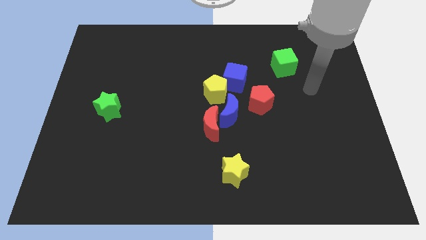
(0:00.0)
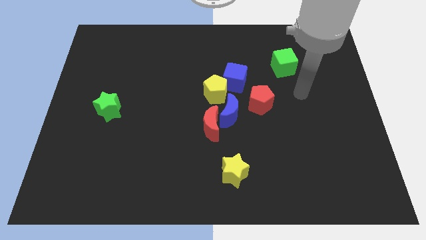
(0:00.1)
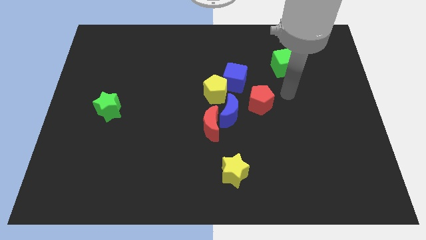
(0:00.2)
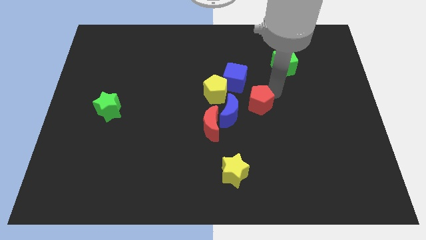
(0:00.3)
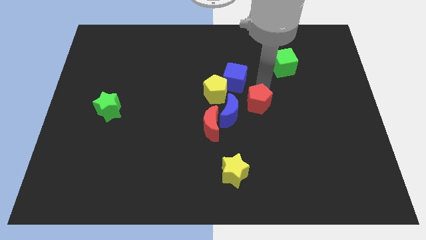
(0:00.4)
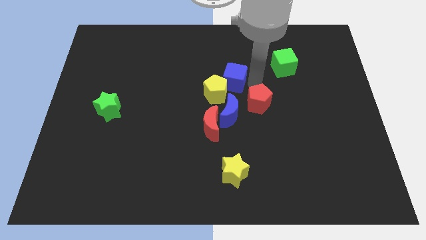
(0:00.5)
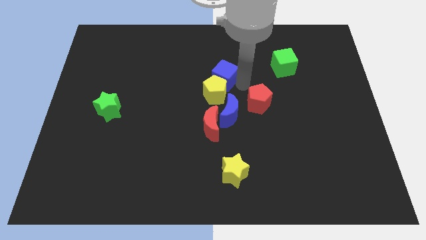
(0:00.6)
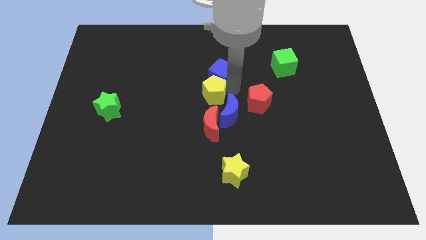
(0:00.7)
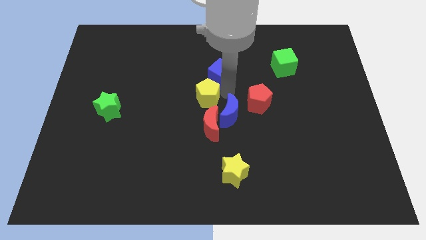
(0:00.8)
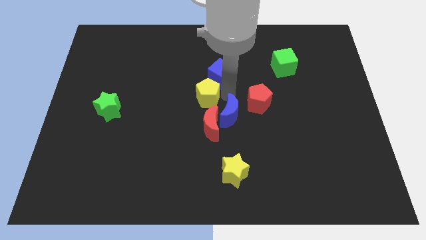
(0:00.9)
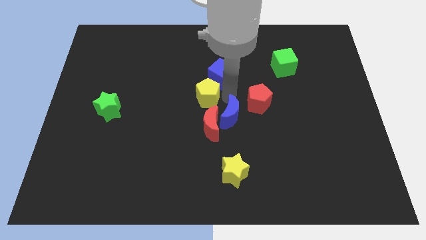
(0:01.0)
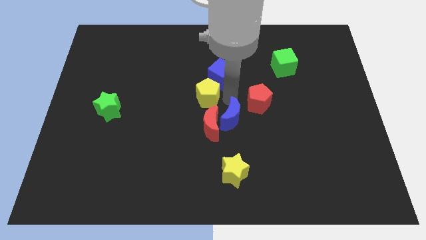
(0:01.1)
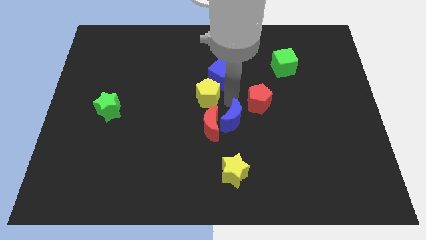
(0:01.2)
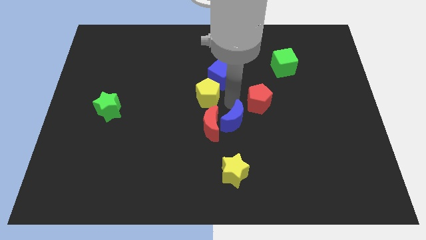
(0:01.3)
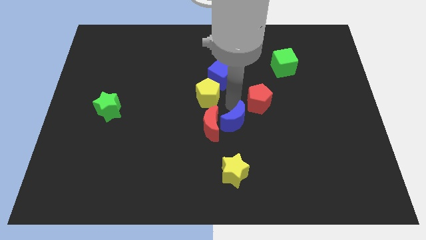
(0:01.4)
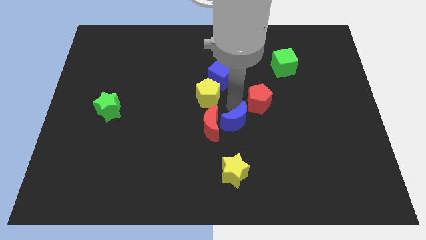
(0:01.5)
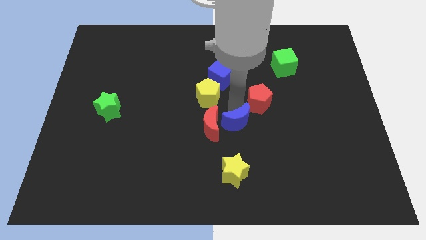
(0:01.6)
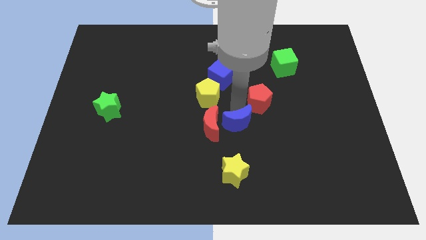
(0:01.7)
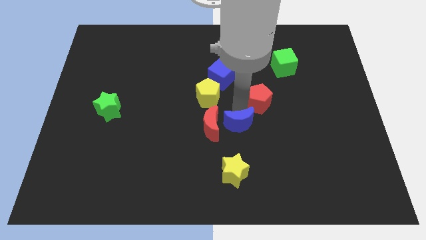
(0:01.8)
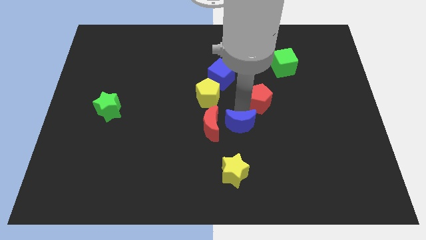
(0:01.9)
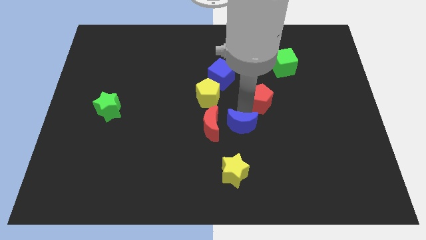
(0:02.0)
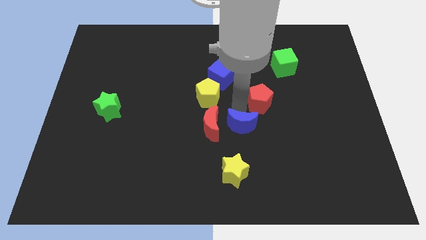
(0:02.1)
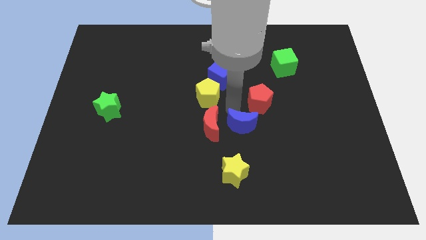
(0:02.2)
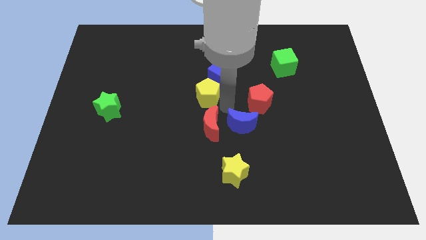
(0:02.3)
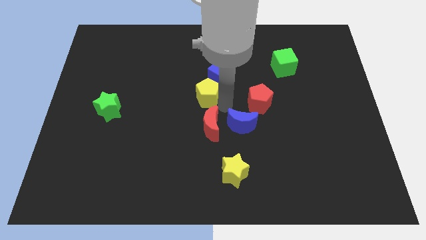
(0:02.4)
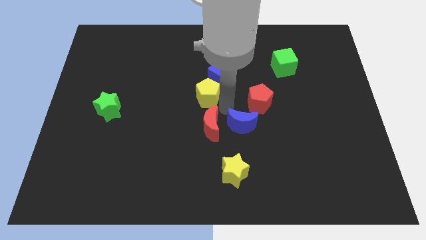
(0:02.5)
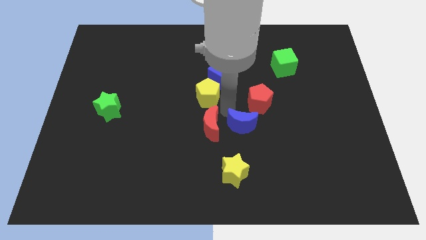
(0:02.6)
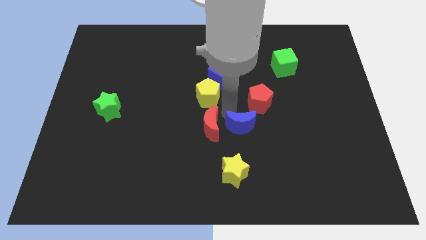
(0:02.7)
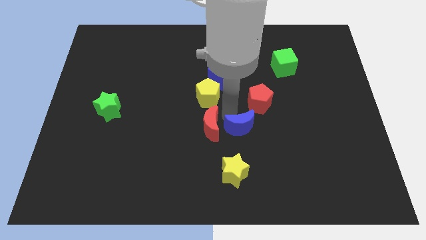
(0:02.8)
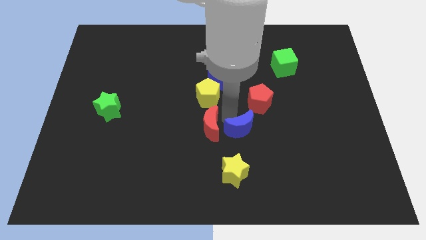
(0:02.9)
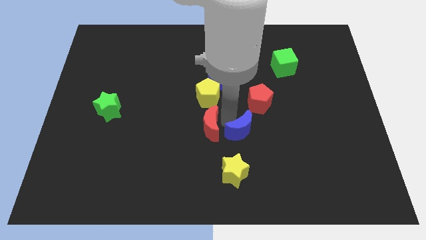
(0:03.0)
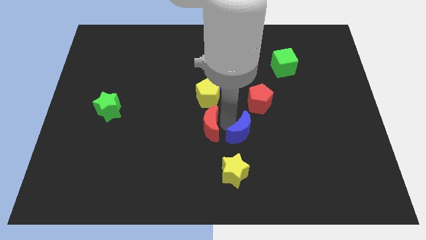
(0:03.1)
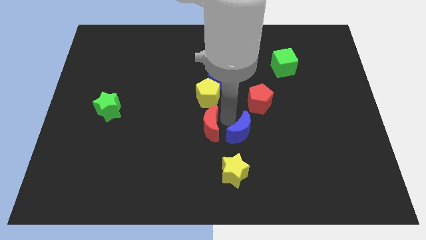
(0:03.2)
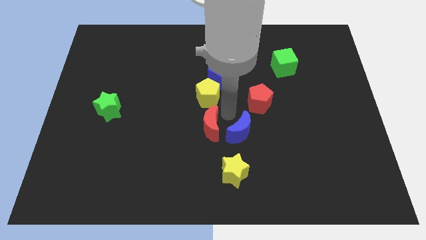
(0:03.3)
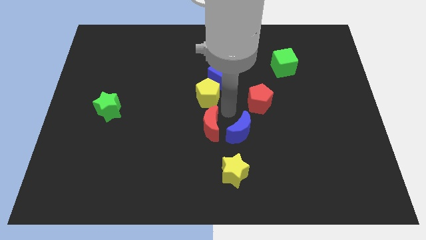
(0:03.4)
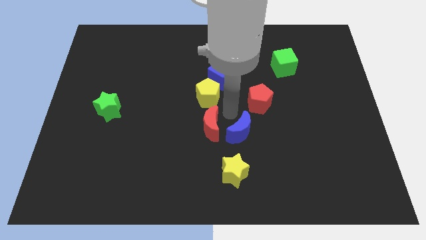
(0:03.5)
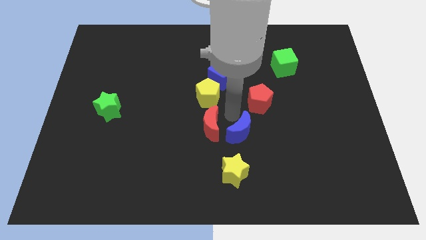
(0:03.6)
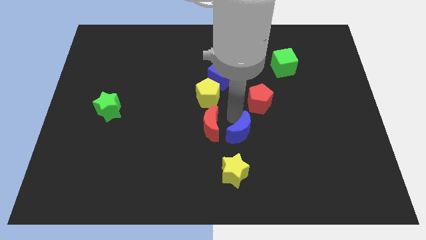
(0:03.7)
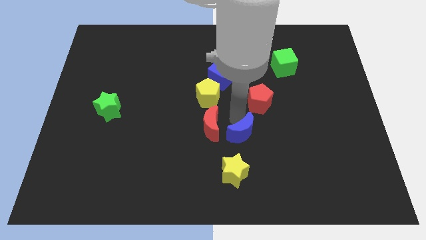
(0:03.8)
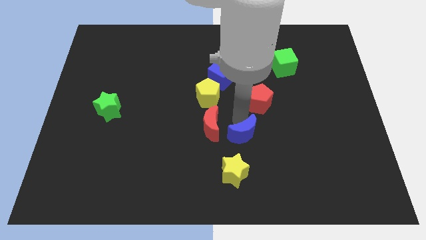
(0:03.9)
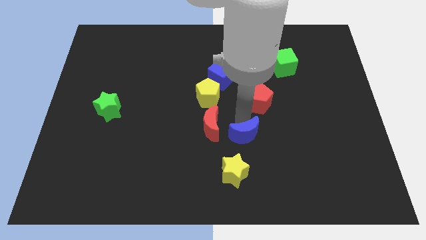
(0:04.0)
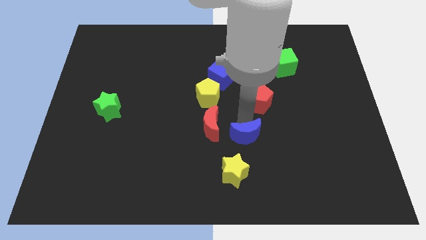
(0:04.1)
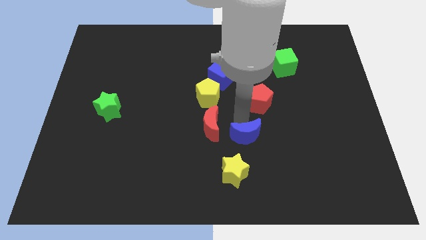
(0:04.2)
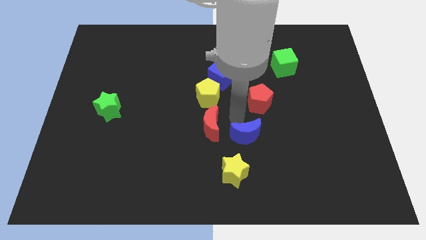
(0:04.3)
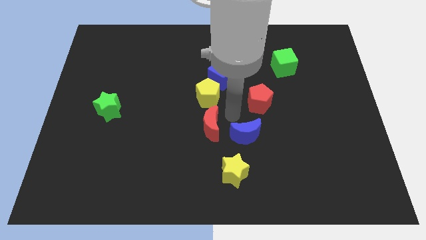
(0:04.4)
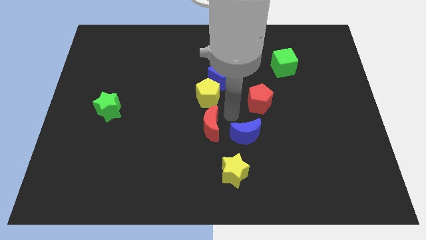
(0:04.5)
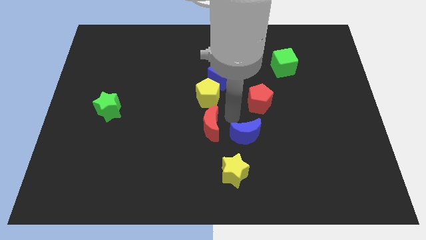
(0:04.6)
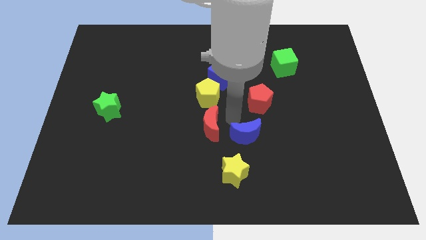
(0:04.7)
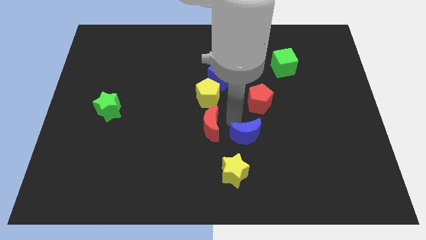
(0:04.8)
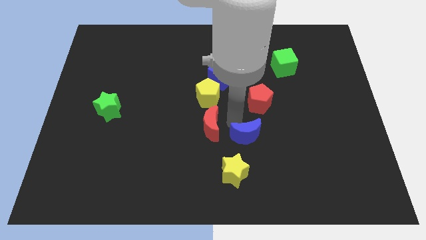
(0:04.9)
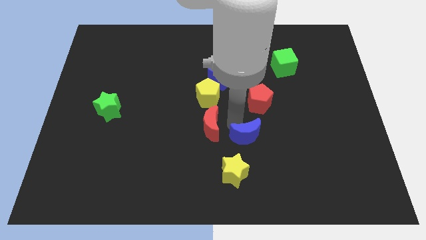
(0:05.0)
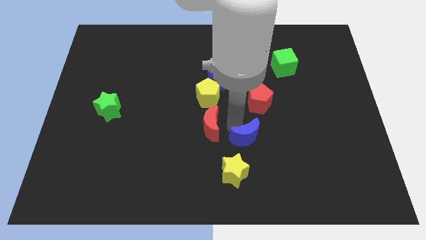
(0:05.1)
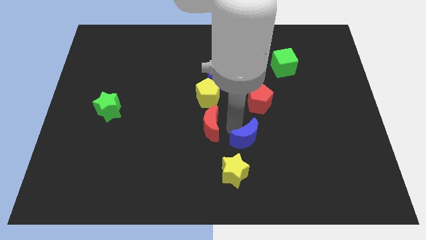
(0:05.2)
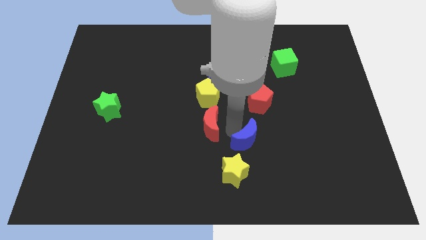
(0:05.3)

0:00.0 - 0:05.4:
separate the blue moon from the red moon, yellow pentagon, and red pentagon

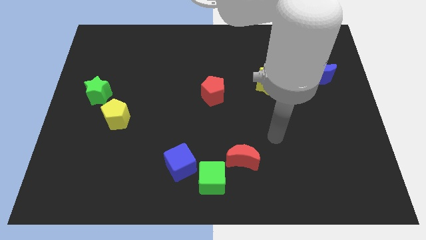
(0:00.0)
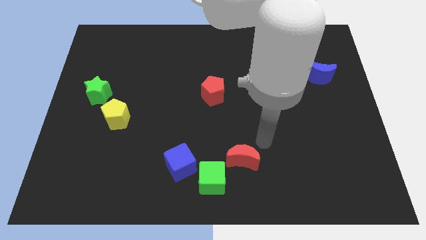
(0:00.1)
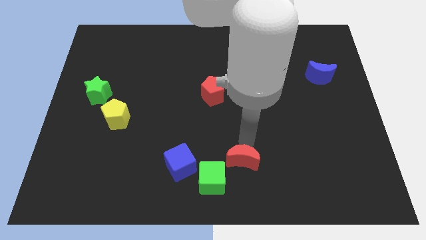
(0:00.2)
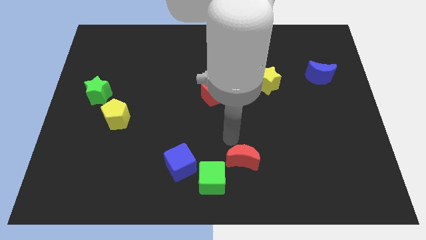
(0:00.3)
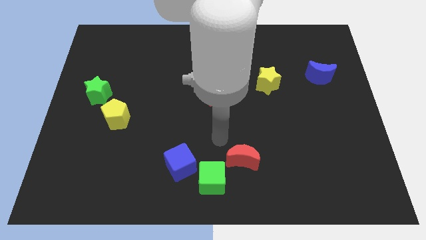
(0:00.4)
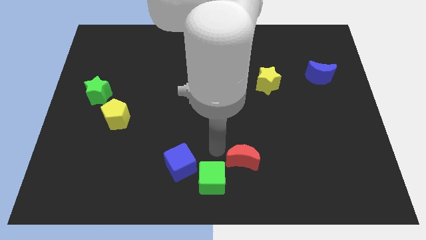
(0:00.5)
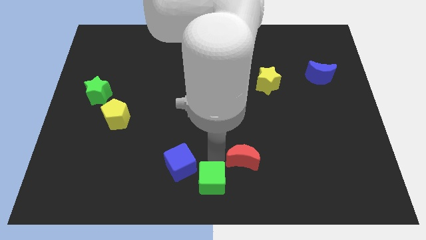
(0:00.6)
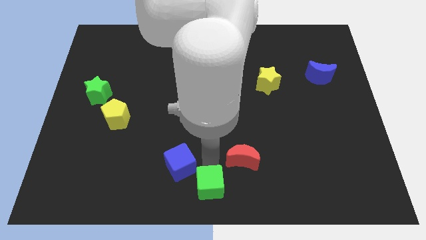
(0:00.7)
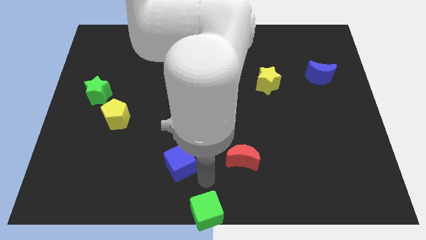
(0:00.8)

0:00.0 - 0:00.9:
pull the blue cube apart from the green cube

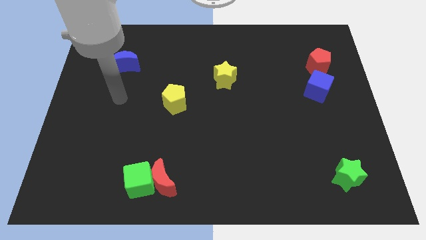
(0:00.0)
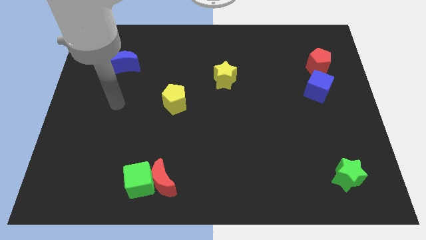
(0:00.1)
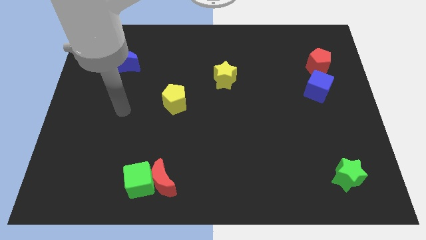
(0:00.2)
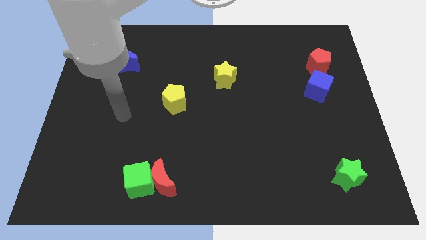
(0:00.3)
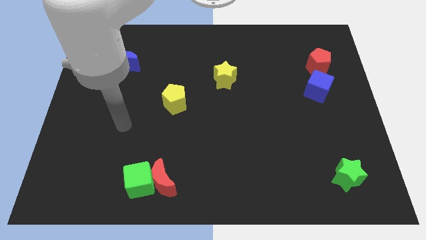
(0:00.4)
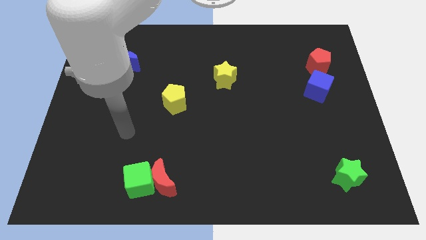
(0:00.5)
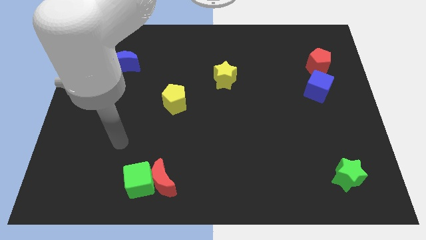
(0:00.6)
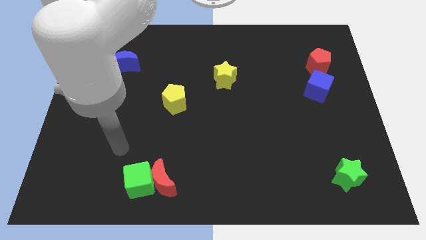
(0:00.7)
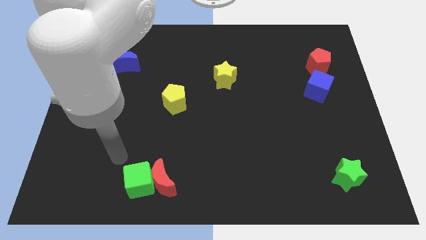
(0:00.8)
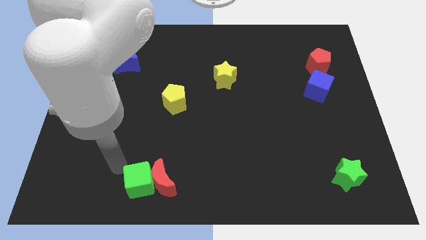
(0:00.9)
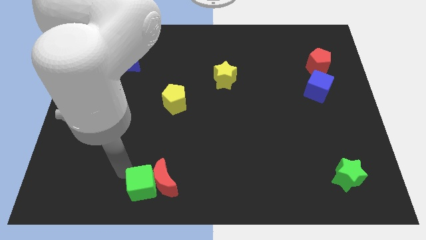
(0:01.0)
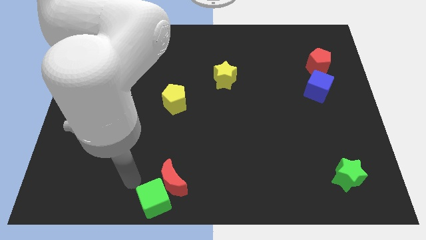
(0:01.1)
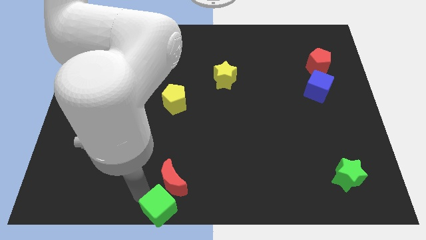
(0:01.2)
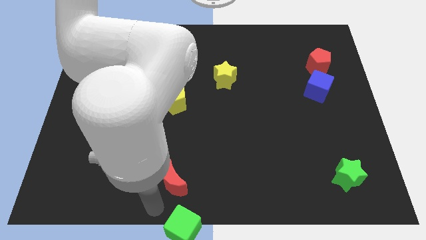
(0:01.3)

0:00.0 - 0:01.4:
pull the red moon apart from the green cube

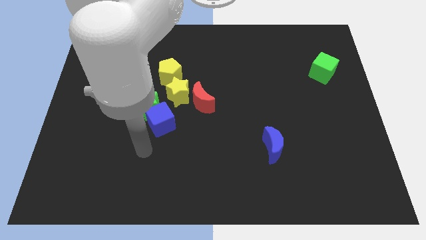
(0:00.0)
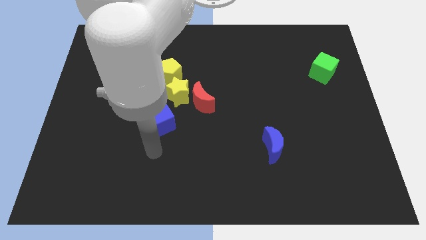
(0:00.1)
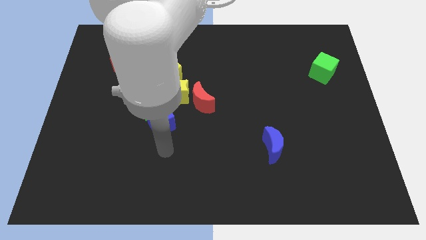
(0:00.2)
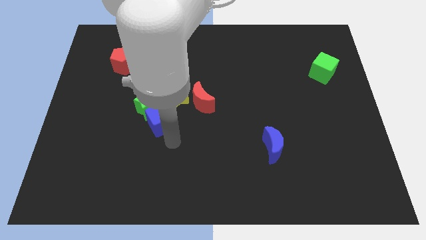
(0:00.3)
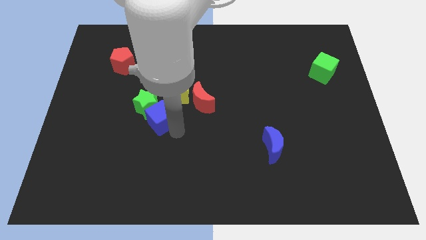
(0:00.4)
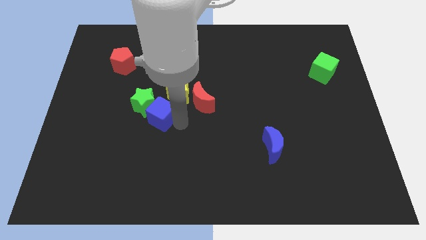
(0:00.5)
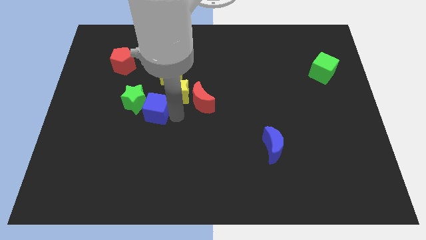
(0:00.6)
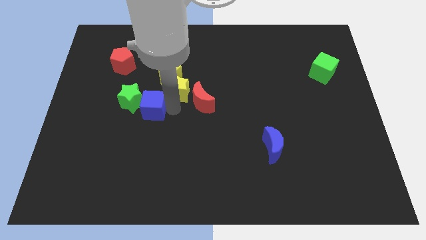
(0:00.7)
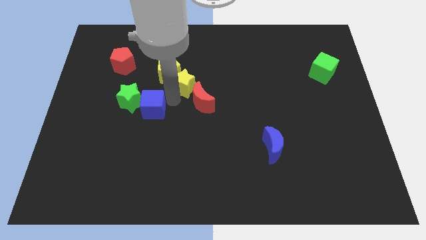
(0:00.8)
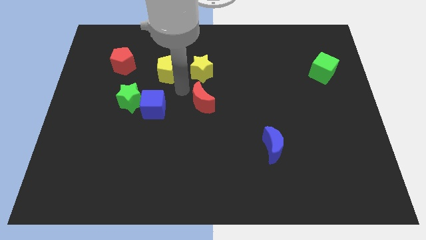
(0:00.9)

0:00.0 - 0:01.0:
separate the red moon from the yellow star

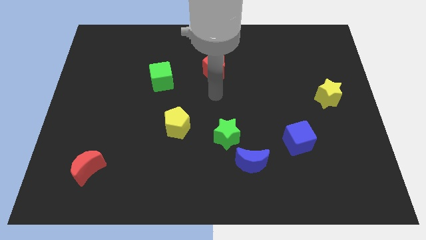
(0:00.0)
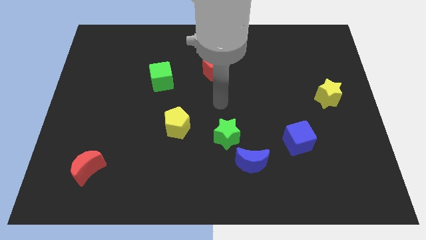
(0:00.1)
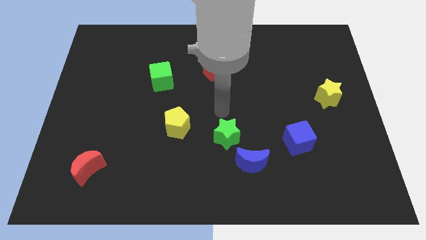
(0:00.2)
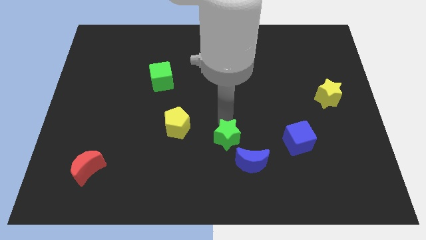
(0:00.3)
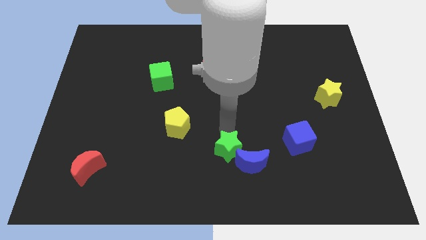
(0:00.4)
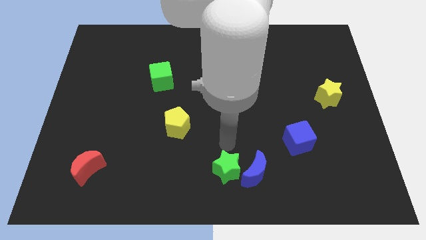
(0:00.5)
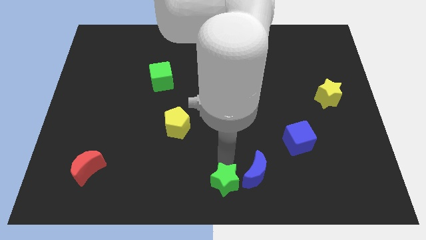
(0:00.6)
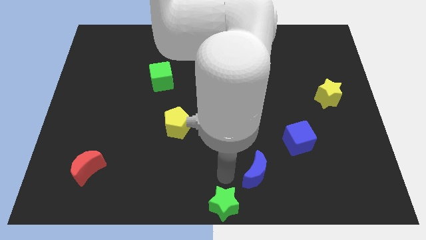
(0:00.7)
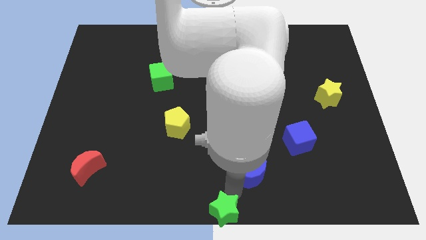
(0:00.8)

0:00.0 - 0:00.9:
separate the blue moon from the green star
